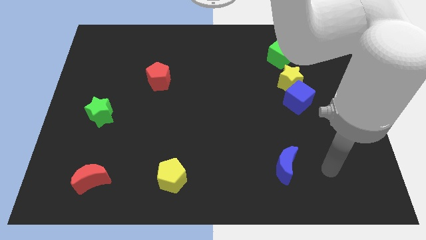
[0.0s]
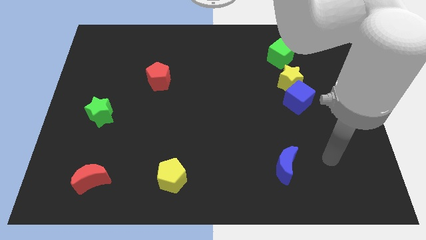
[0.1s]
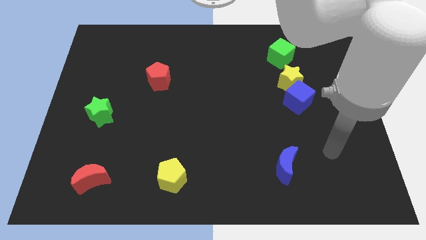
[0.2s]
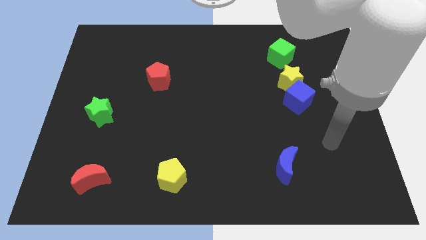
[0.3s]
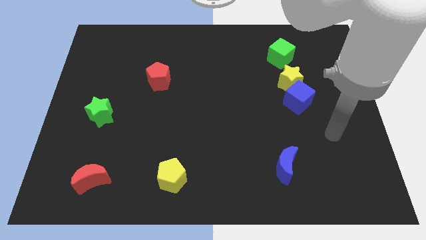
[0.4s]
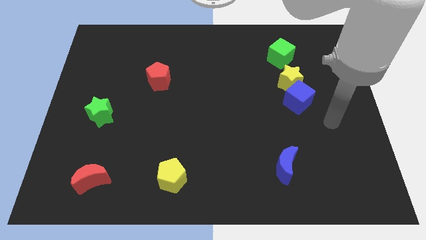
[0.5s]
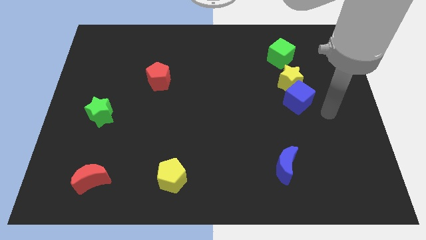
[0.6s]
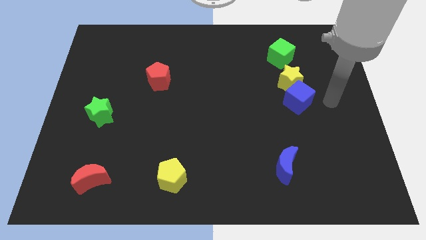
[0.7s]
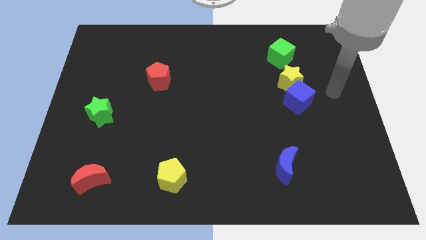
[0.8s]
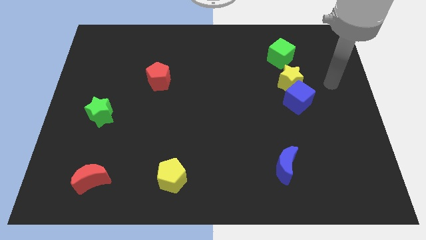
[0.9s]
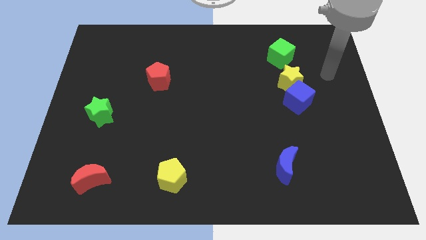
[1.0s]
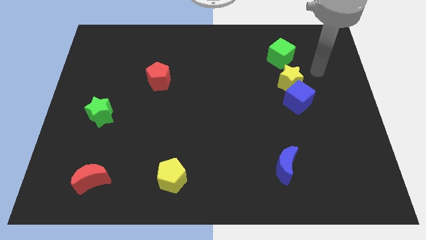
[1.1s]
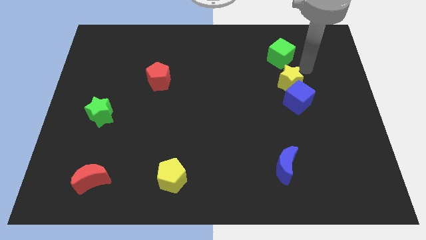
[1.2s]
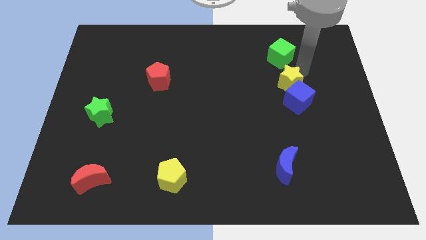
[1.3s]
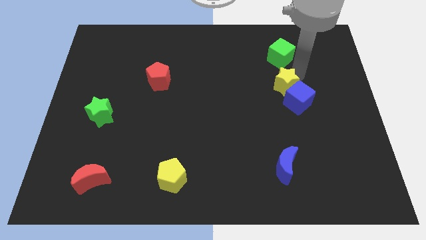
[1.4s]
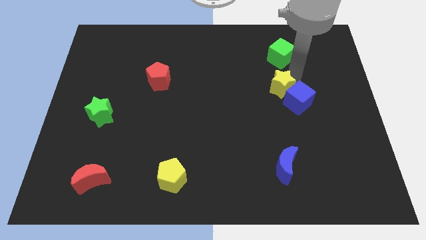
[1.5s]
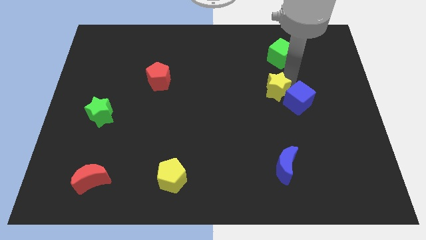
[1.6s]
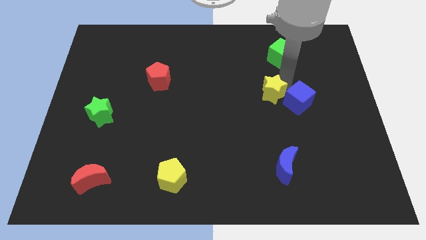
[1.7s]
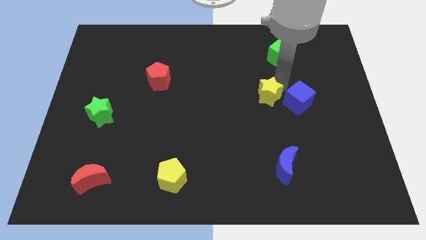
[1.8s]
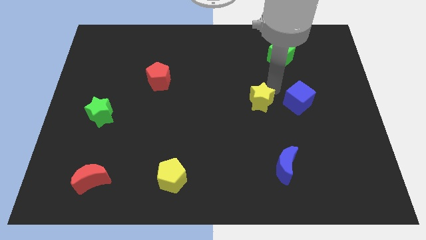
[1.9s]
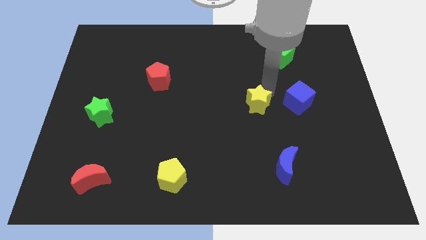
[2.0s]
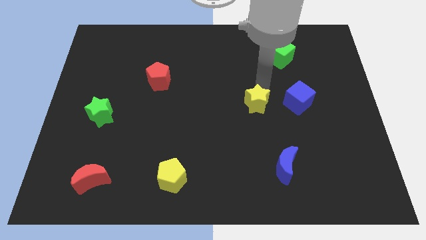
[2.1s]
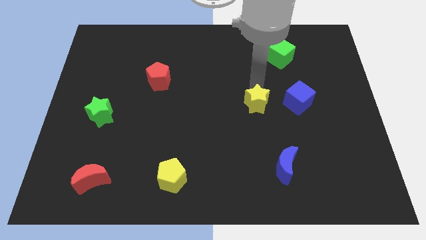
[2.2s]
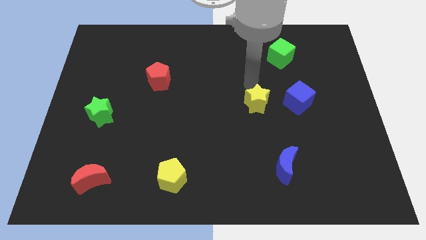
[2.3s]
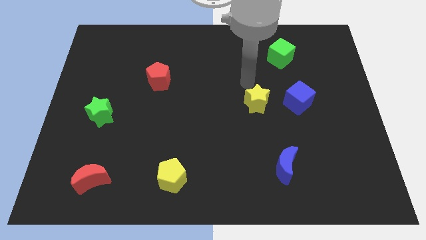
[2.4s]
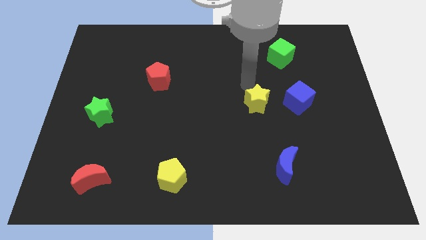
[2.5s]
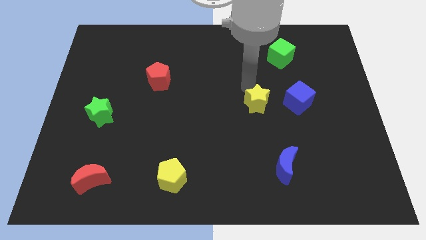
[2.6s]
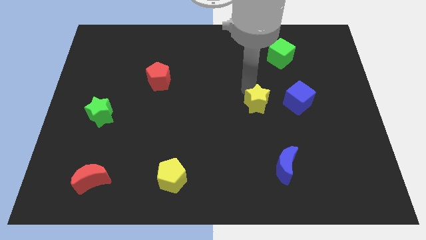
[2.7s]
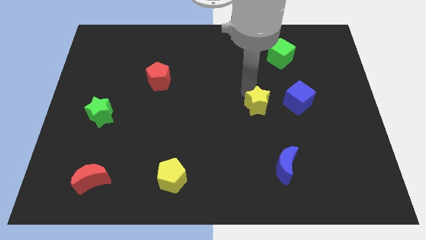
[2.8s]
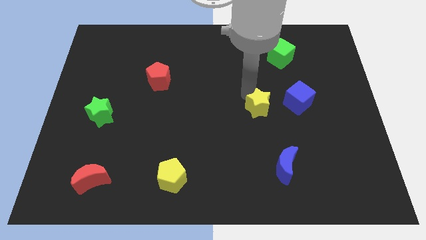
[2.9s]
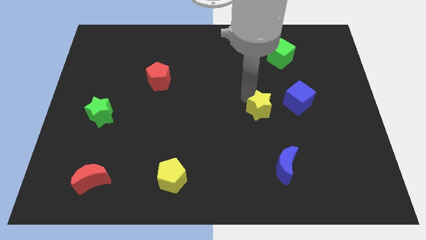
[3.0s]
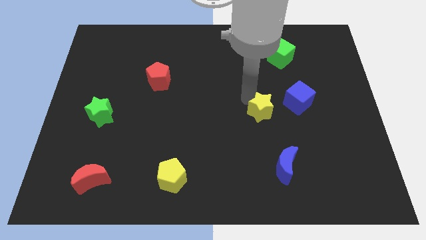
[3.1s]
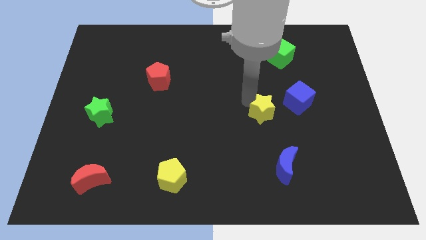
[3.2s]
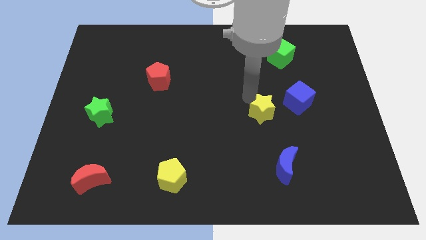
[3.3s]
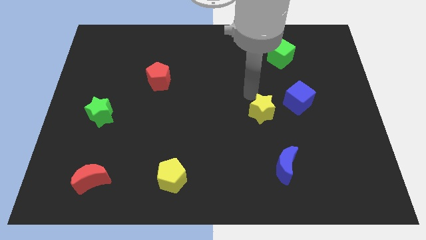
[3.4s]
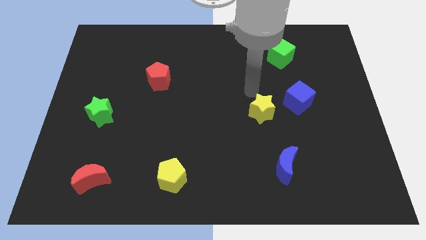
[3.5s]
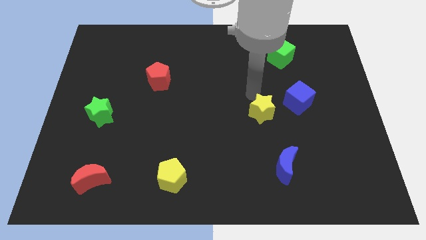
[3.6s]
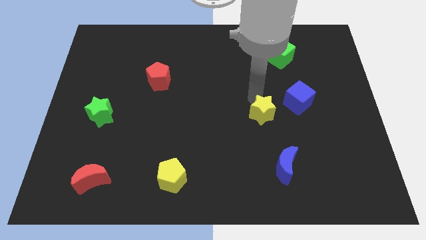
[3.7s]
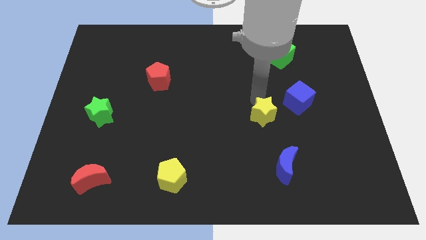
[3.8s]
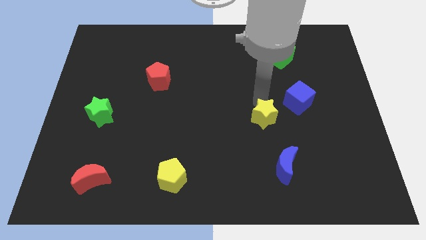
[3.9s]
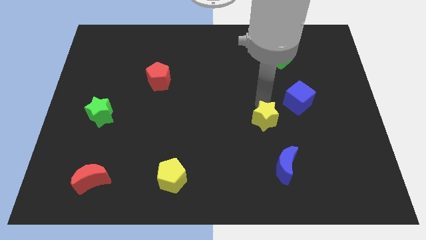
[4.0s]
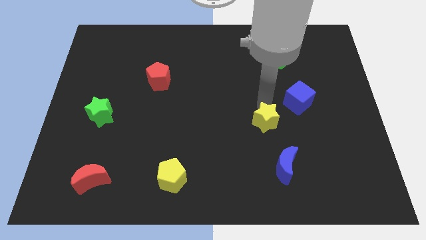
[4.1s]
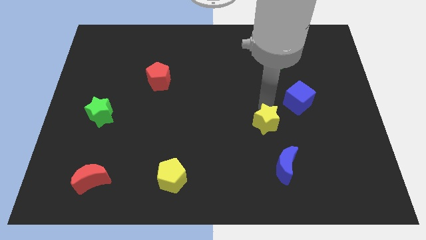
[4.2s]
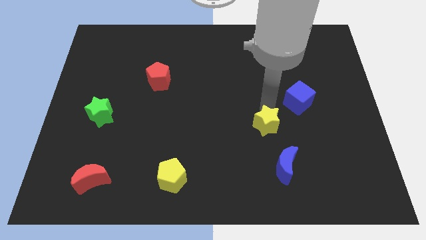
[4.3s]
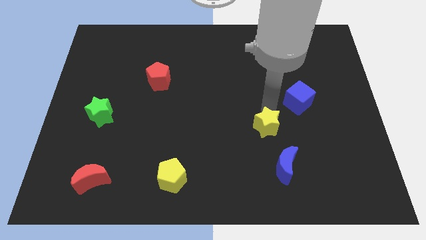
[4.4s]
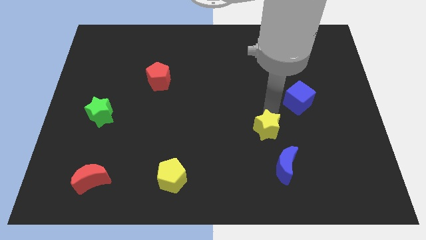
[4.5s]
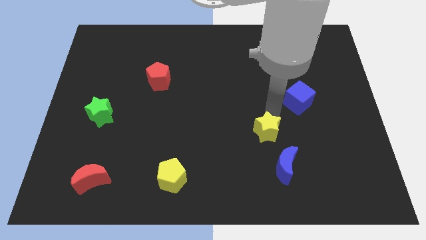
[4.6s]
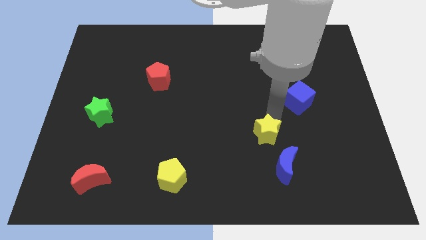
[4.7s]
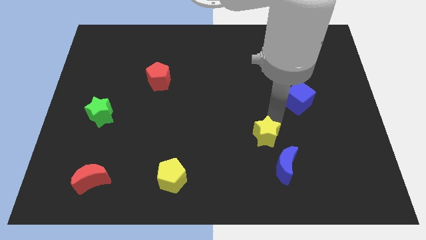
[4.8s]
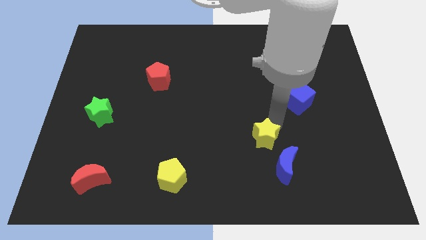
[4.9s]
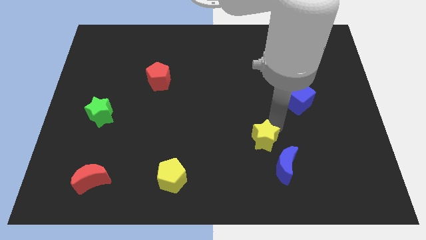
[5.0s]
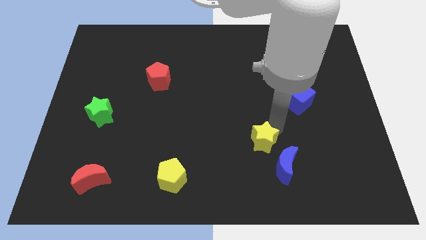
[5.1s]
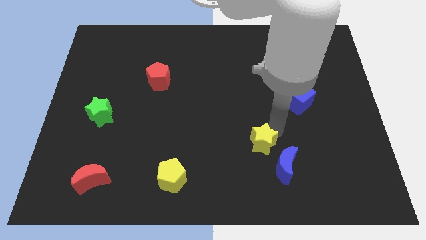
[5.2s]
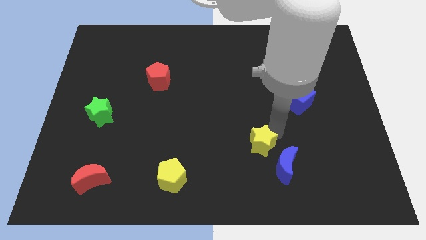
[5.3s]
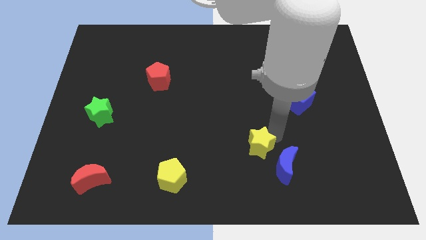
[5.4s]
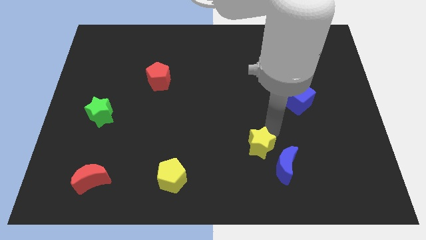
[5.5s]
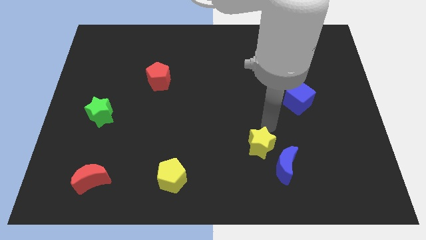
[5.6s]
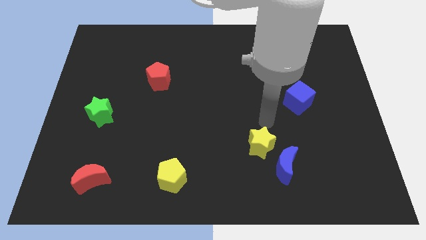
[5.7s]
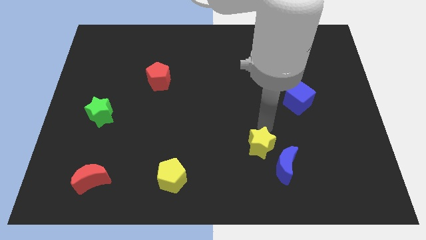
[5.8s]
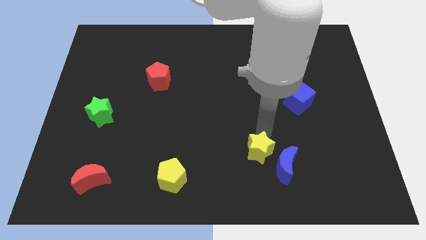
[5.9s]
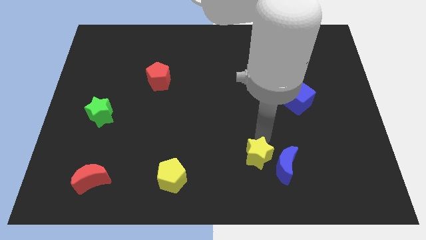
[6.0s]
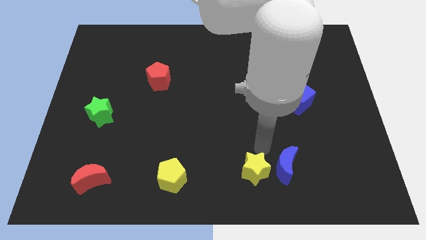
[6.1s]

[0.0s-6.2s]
move the yellow star to the bottom side

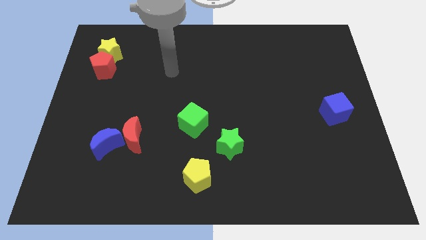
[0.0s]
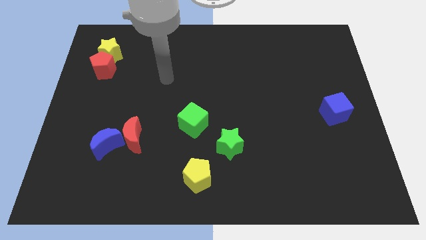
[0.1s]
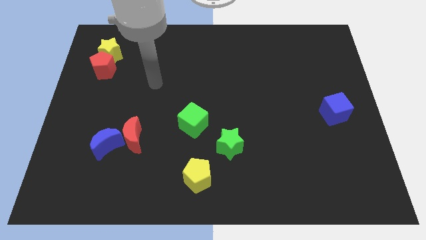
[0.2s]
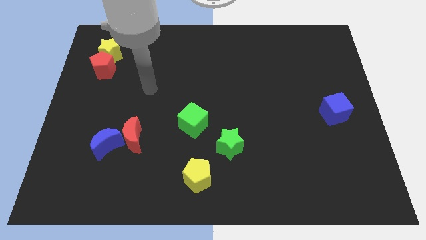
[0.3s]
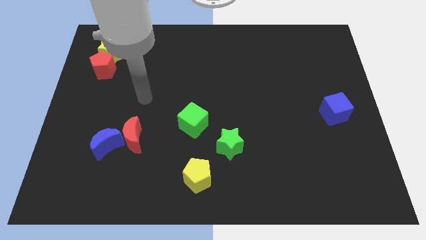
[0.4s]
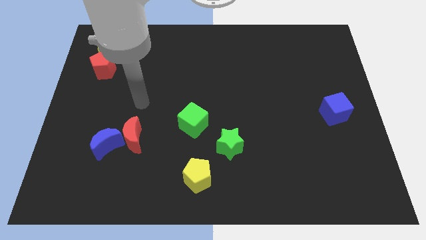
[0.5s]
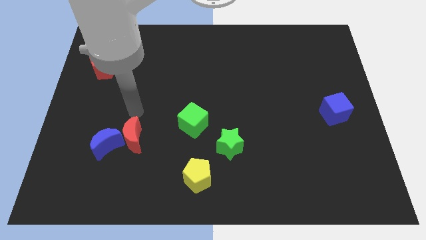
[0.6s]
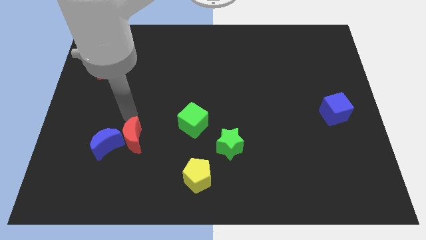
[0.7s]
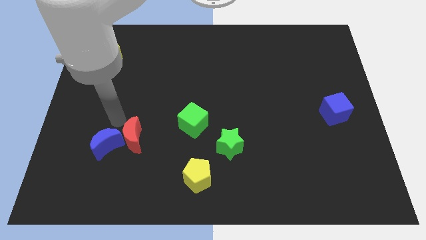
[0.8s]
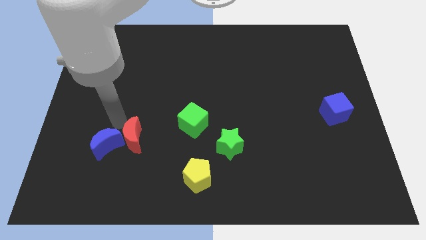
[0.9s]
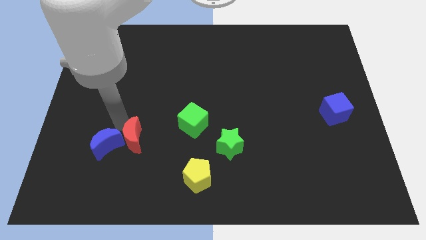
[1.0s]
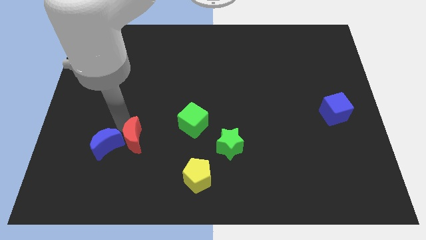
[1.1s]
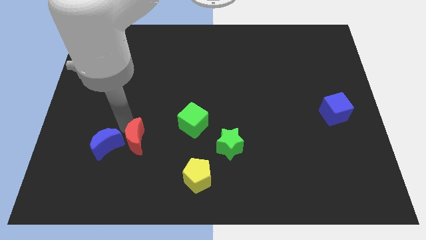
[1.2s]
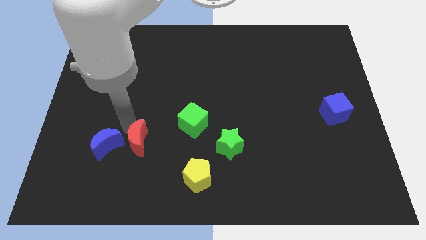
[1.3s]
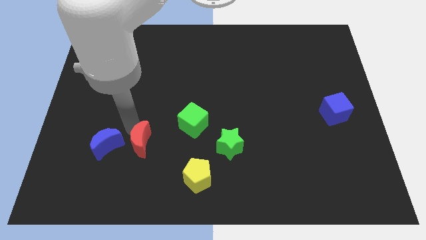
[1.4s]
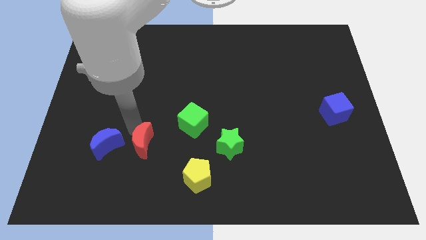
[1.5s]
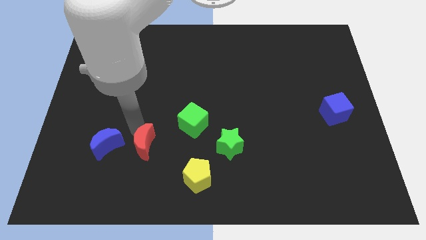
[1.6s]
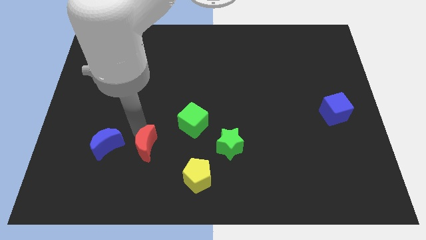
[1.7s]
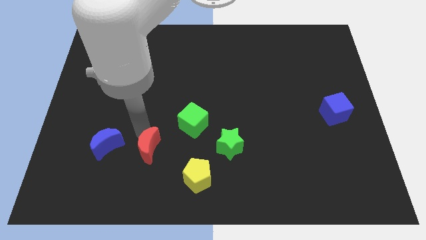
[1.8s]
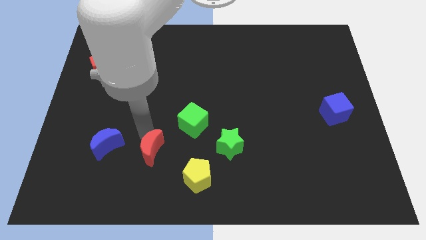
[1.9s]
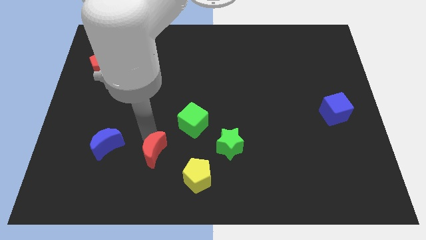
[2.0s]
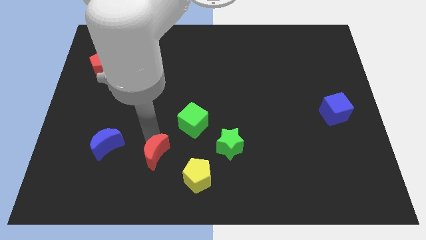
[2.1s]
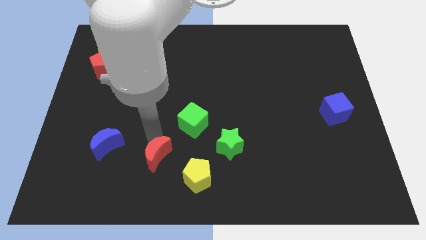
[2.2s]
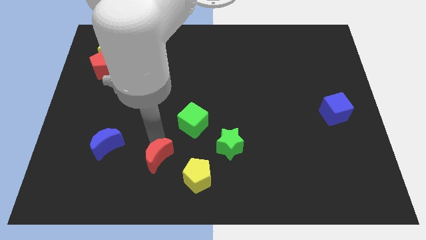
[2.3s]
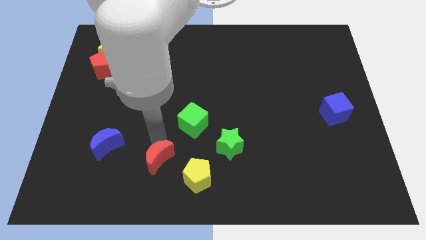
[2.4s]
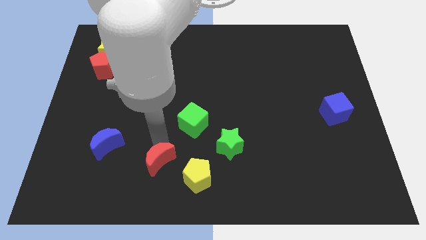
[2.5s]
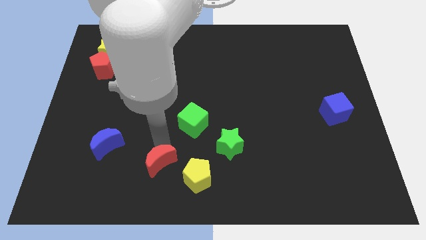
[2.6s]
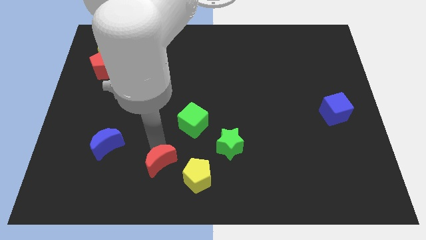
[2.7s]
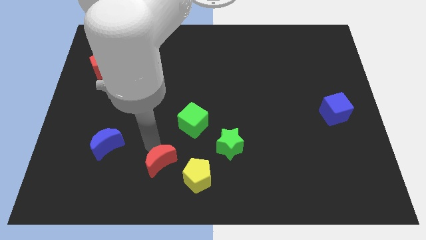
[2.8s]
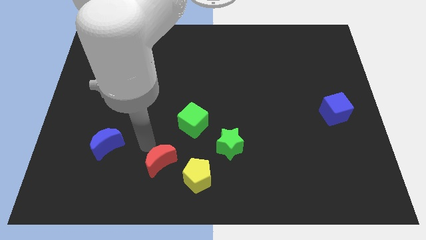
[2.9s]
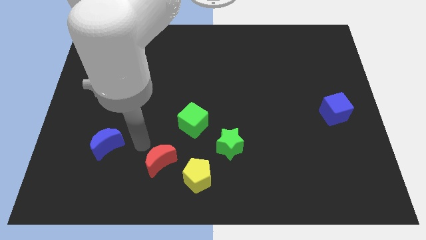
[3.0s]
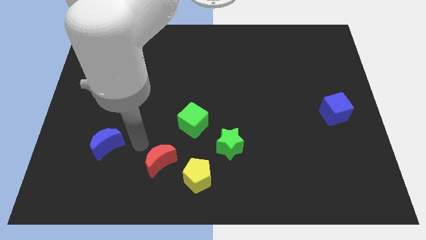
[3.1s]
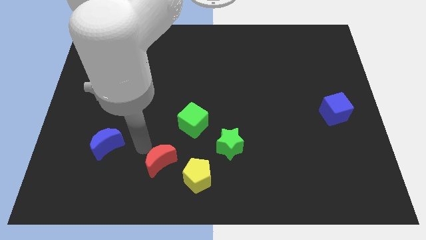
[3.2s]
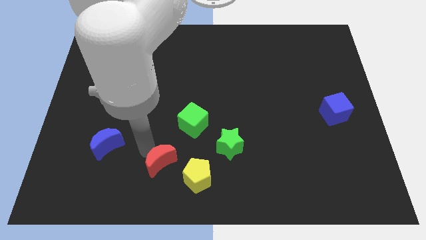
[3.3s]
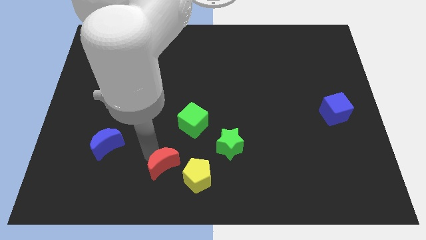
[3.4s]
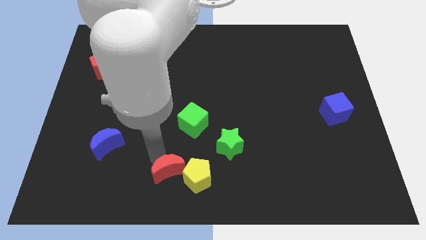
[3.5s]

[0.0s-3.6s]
put the red moon to the bottom side
